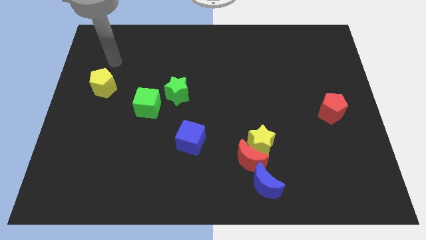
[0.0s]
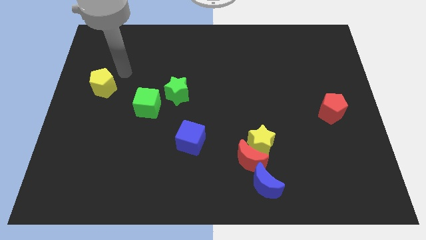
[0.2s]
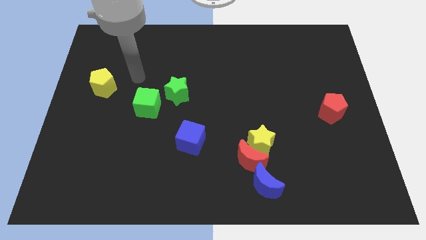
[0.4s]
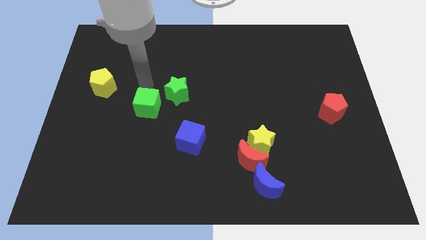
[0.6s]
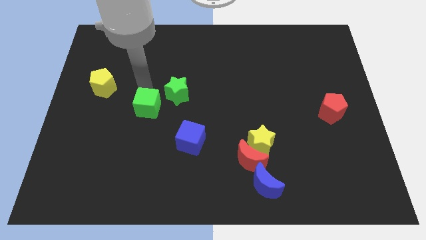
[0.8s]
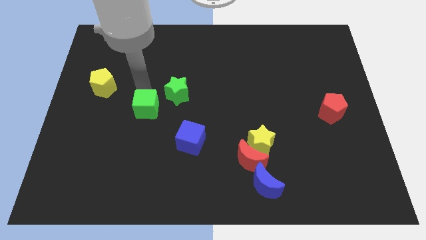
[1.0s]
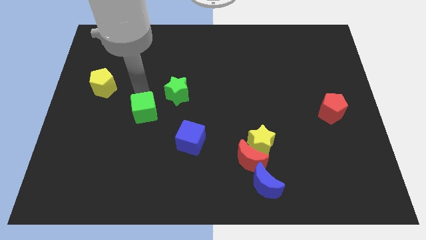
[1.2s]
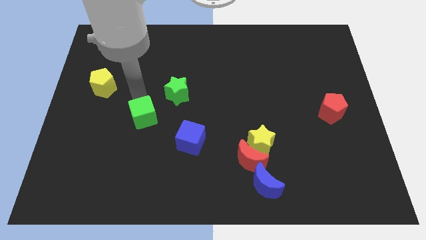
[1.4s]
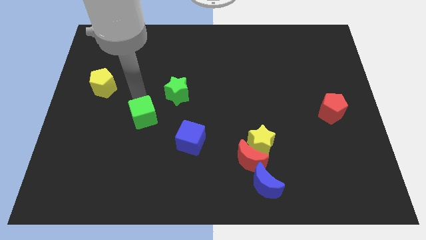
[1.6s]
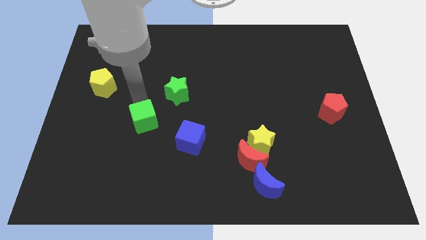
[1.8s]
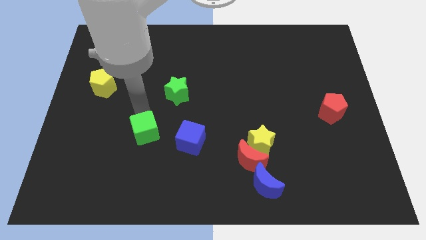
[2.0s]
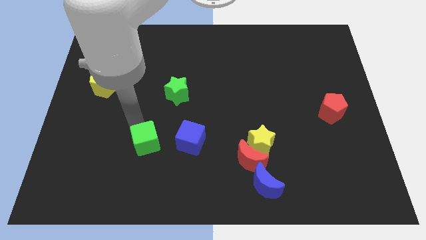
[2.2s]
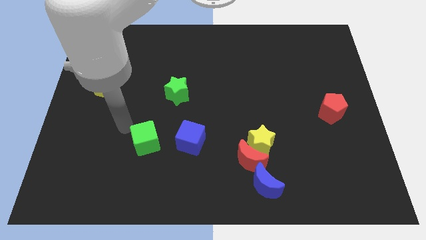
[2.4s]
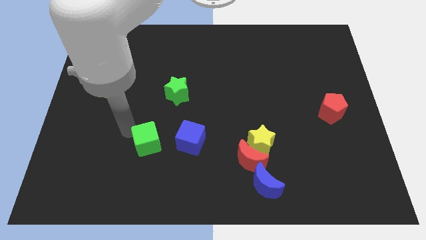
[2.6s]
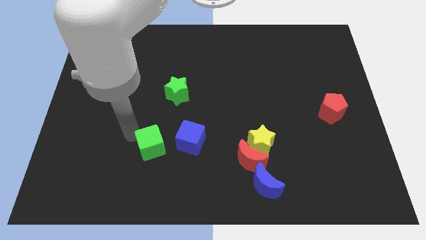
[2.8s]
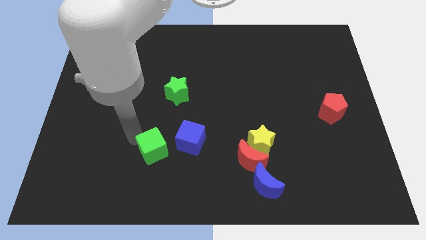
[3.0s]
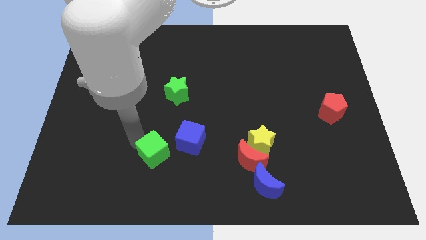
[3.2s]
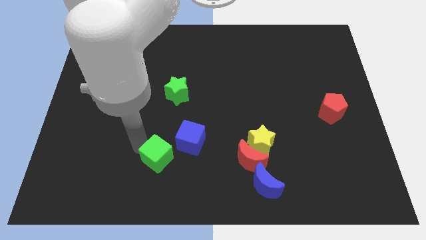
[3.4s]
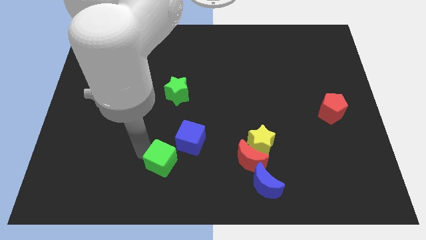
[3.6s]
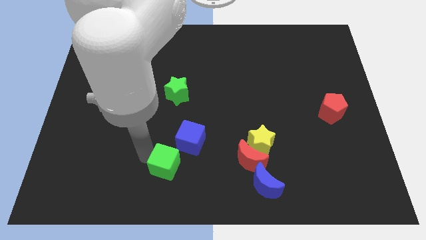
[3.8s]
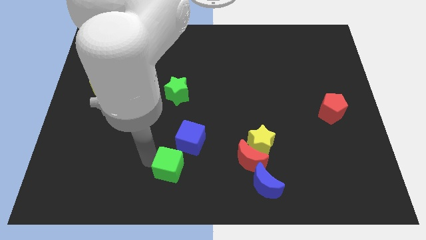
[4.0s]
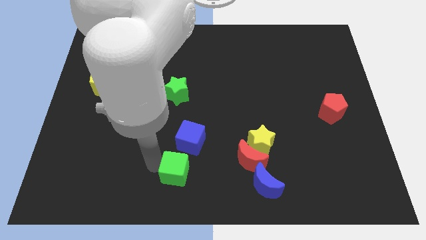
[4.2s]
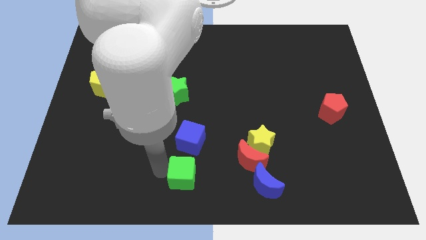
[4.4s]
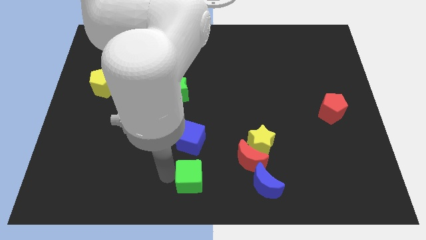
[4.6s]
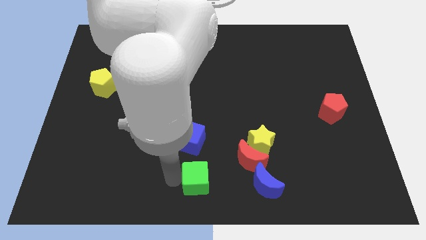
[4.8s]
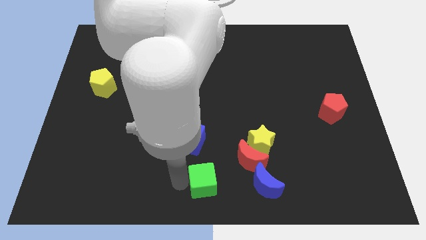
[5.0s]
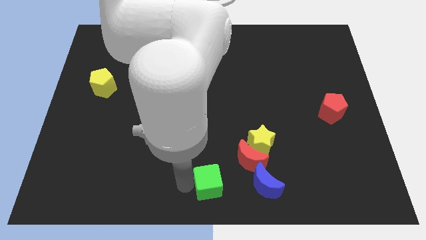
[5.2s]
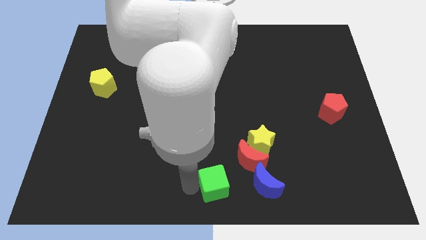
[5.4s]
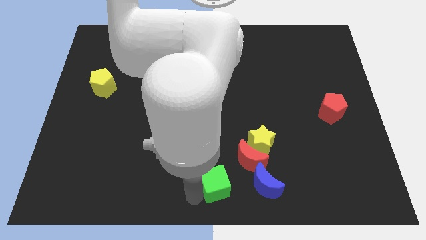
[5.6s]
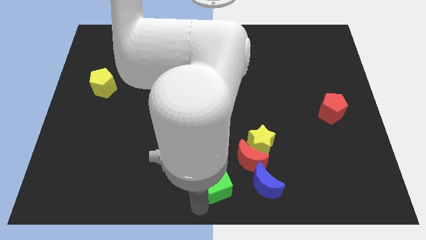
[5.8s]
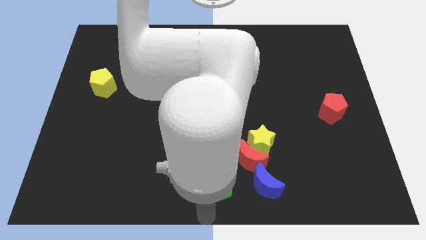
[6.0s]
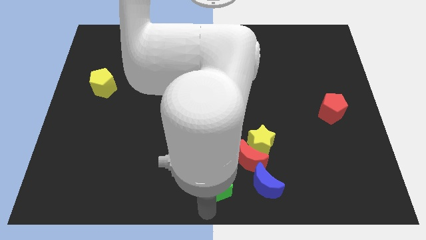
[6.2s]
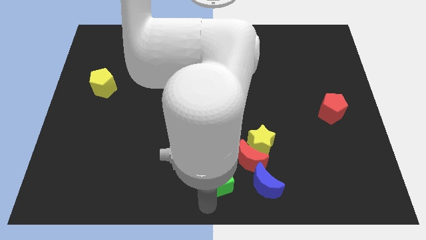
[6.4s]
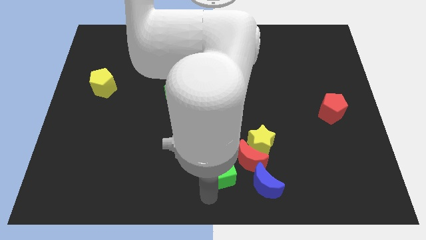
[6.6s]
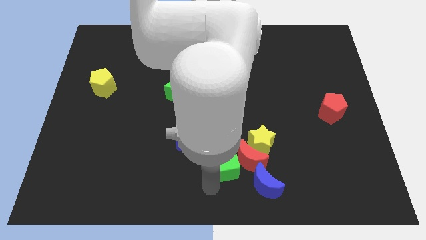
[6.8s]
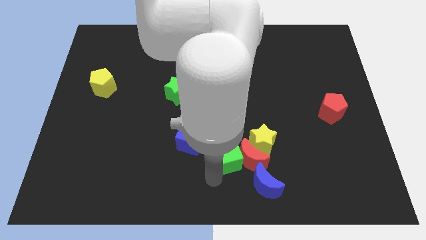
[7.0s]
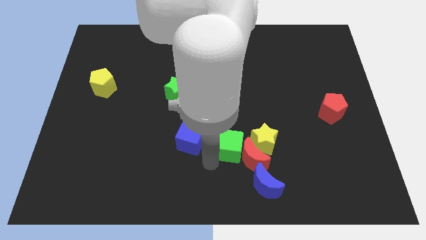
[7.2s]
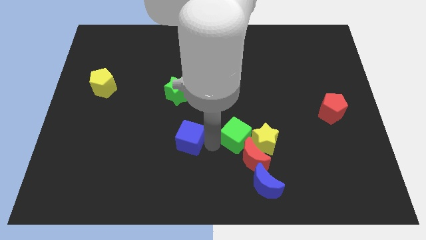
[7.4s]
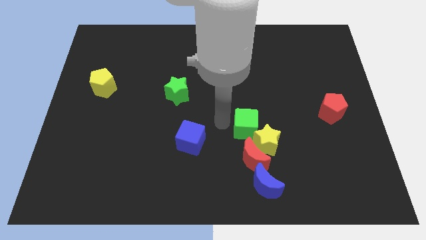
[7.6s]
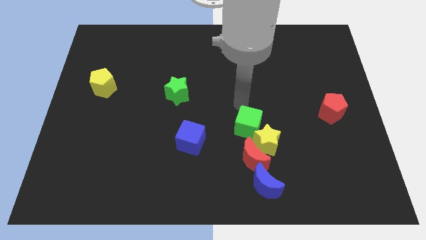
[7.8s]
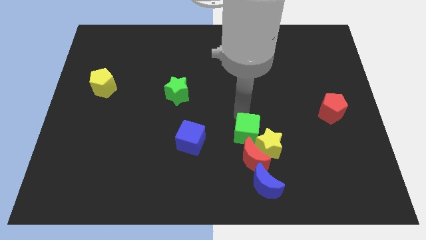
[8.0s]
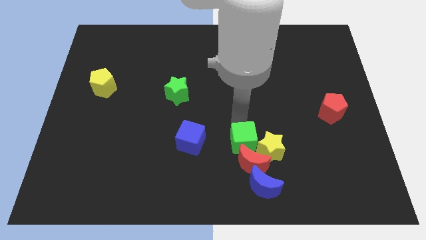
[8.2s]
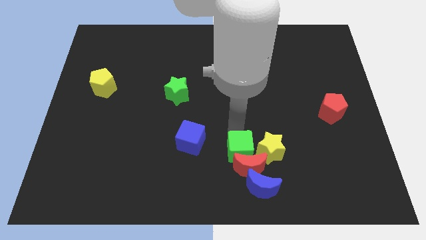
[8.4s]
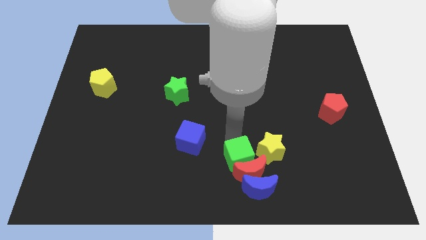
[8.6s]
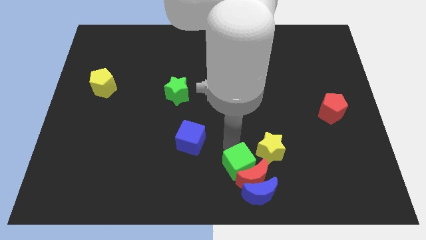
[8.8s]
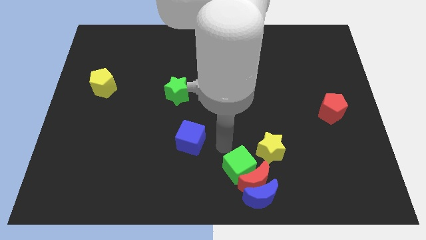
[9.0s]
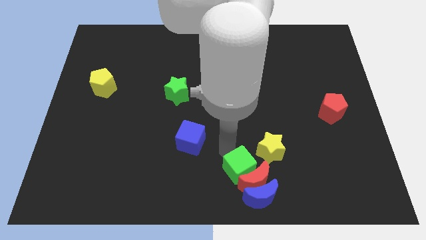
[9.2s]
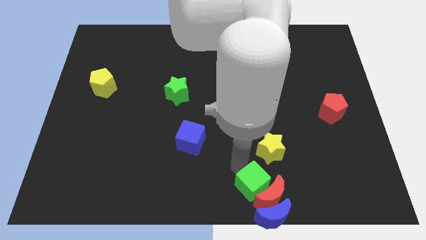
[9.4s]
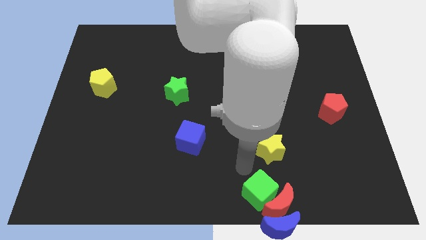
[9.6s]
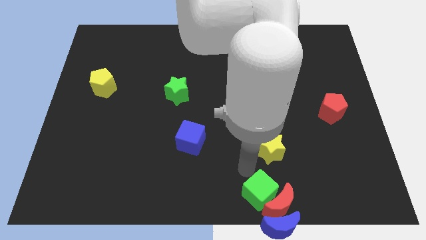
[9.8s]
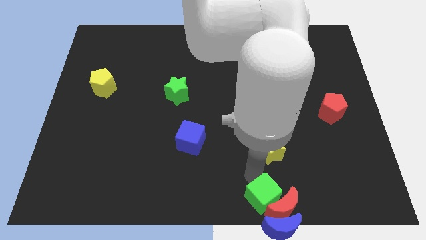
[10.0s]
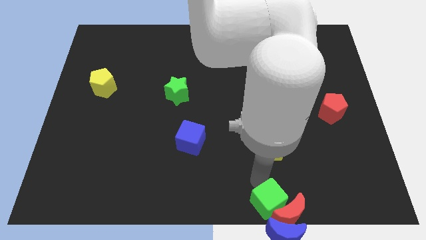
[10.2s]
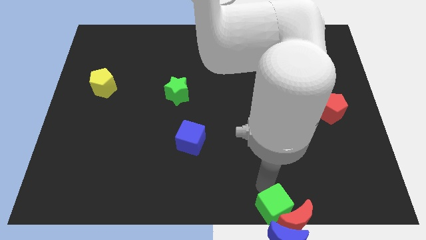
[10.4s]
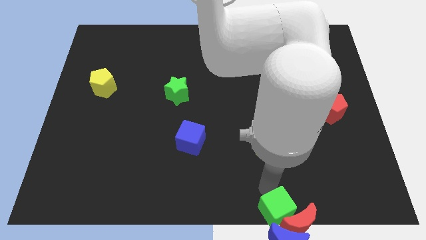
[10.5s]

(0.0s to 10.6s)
move the green cube close to the blue moon

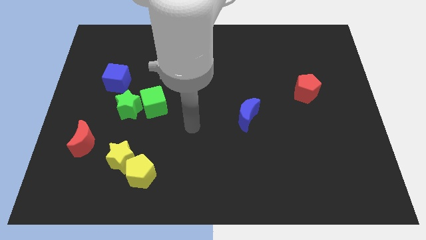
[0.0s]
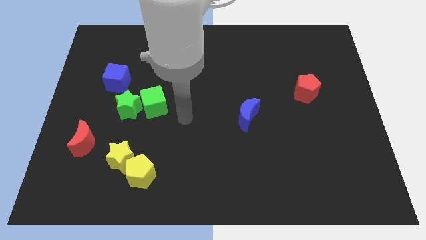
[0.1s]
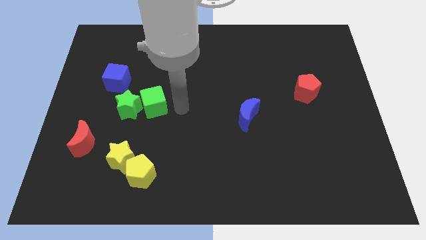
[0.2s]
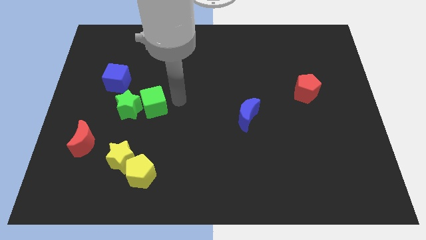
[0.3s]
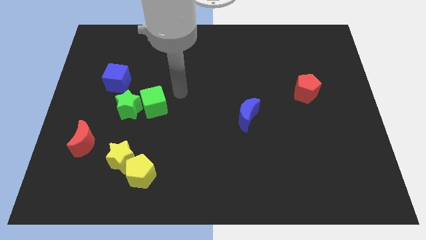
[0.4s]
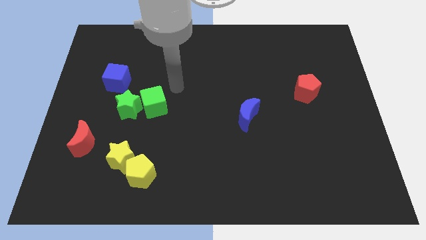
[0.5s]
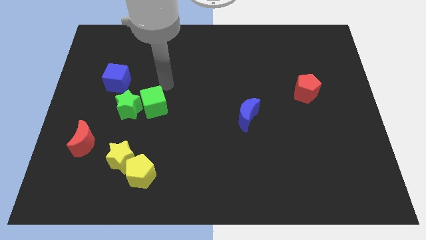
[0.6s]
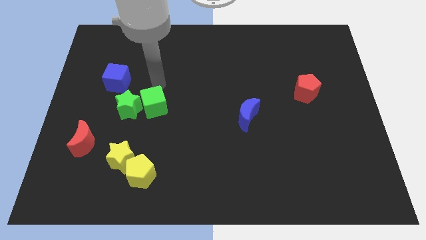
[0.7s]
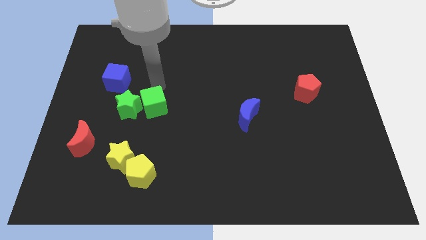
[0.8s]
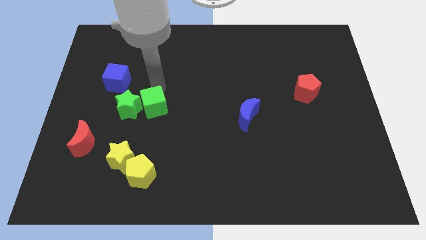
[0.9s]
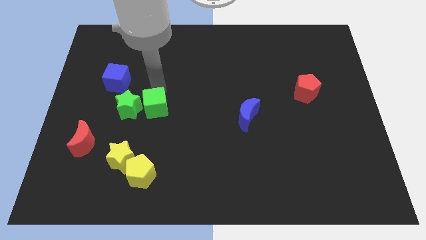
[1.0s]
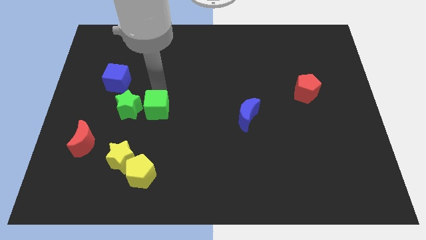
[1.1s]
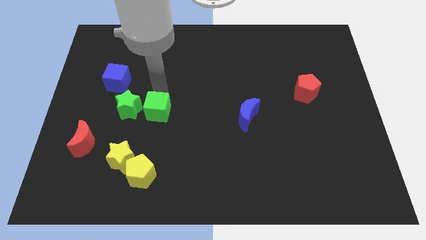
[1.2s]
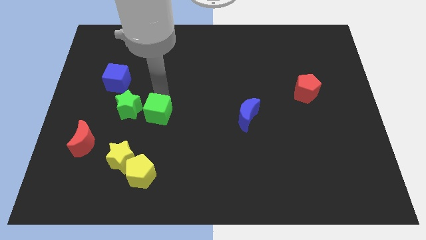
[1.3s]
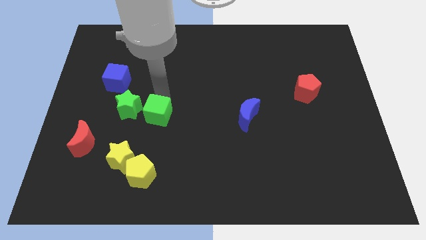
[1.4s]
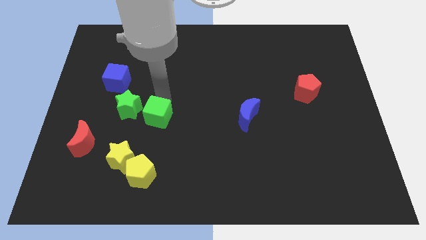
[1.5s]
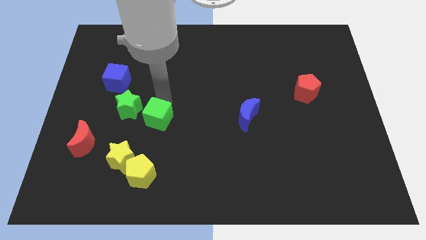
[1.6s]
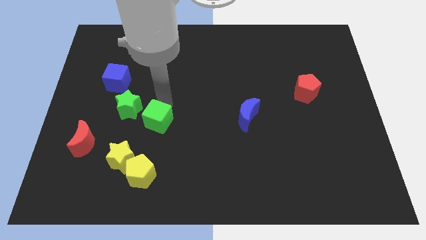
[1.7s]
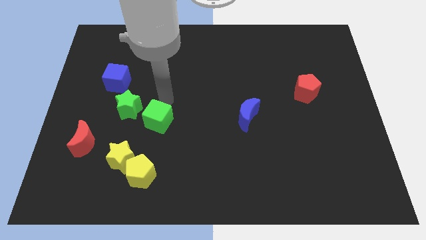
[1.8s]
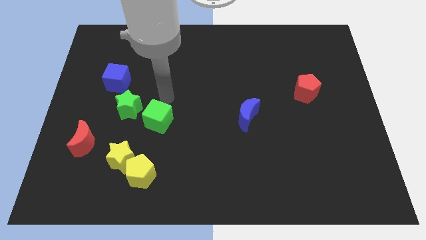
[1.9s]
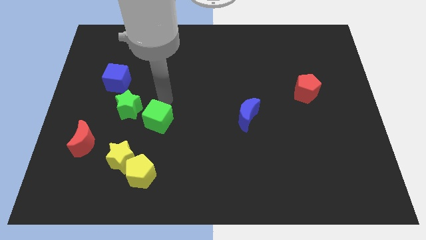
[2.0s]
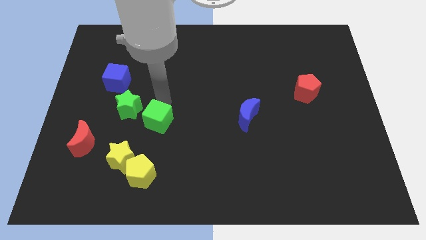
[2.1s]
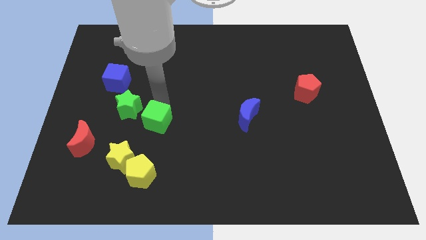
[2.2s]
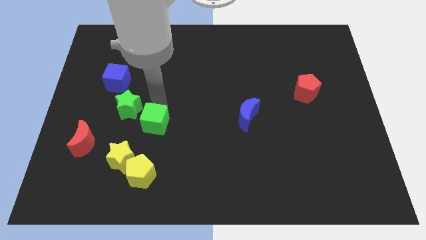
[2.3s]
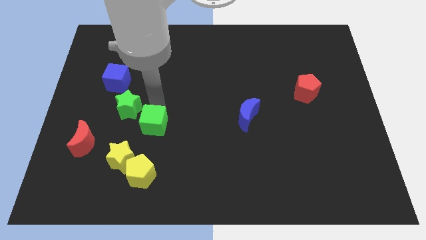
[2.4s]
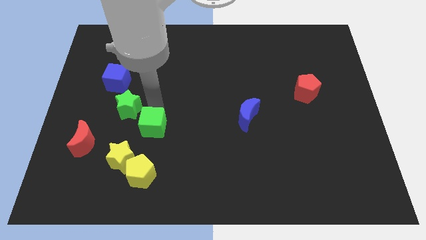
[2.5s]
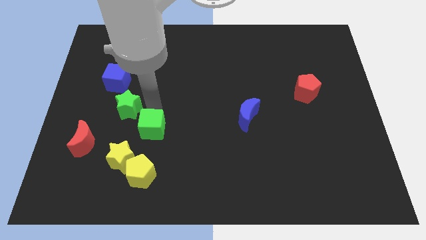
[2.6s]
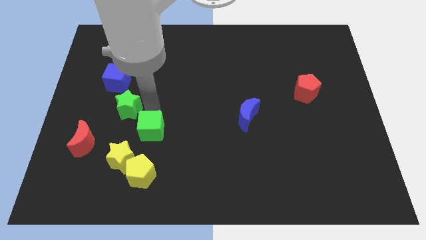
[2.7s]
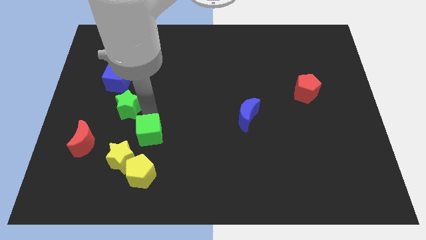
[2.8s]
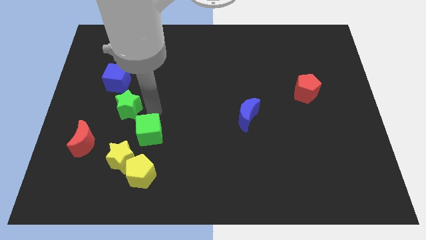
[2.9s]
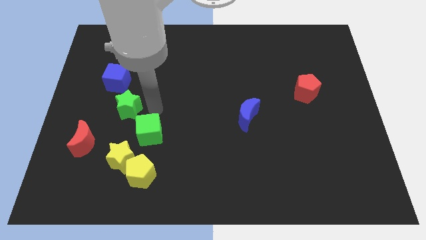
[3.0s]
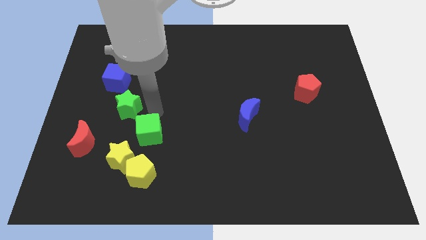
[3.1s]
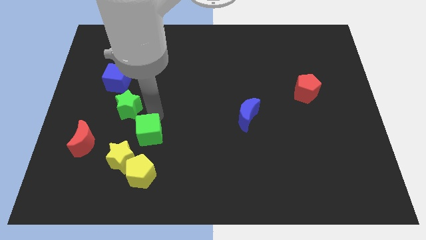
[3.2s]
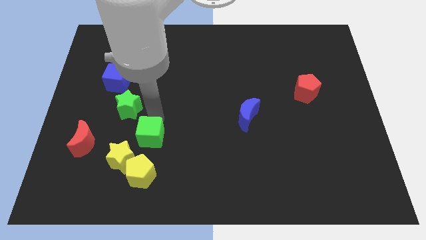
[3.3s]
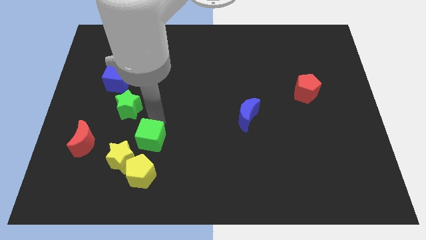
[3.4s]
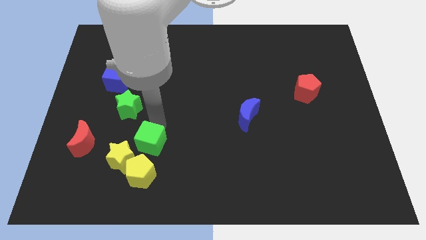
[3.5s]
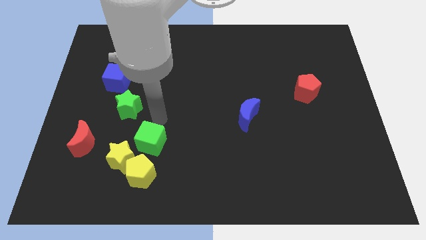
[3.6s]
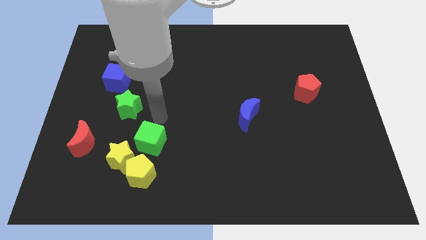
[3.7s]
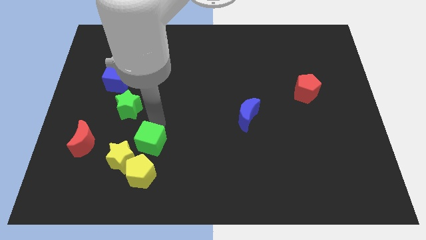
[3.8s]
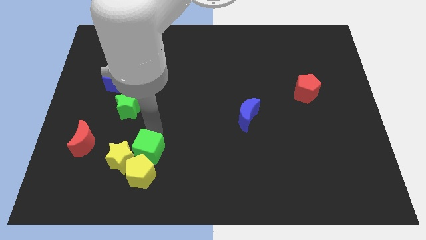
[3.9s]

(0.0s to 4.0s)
move the green cube towards the yellow pentagon
